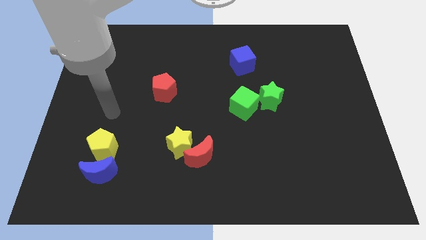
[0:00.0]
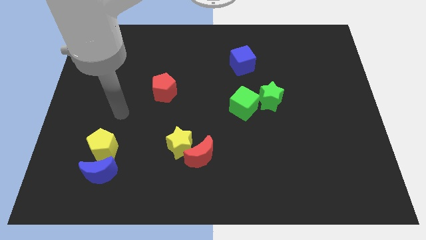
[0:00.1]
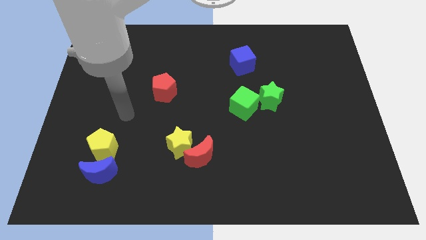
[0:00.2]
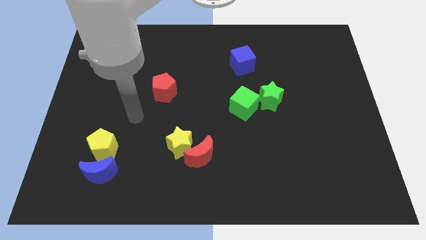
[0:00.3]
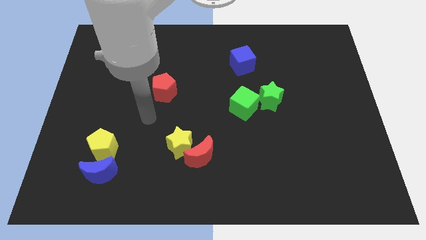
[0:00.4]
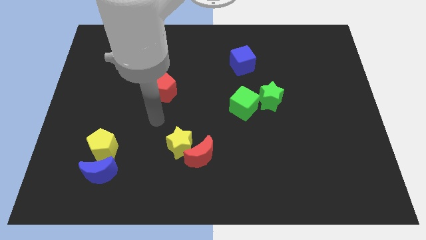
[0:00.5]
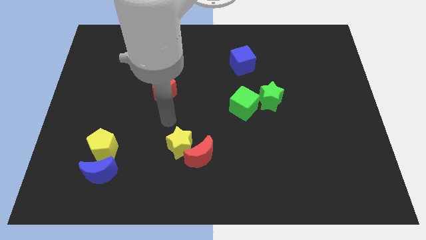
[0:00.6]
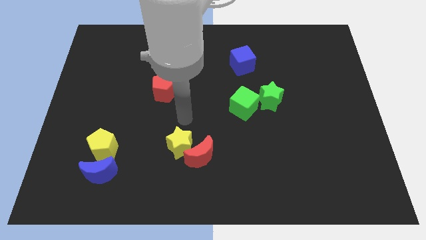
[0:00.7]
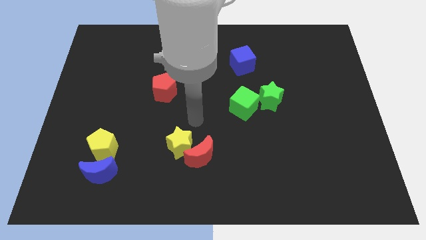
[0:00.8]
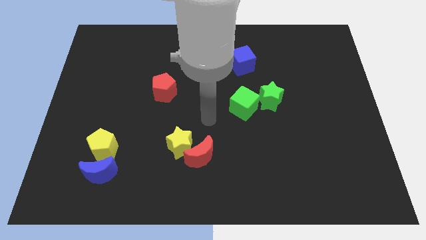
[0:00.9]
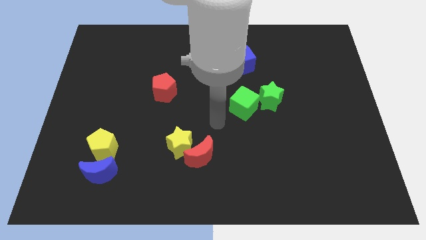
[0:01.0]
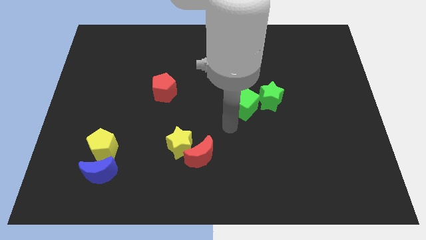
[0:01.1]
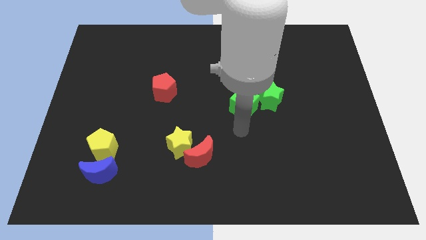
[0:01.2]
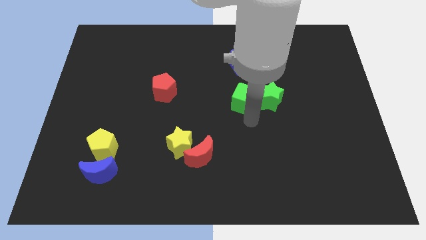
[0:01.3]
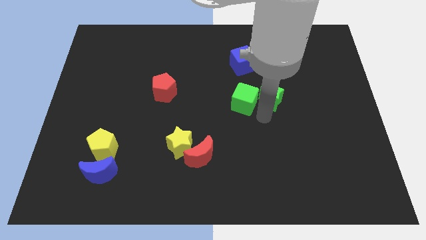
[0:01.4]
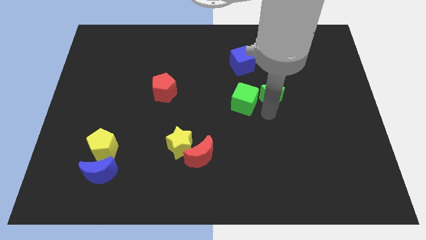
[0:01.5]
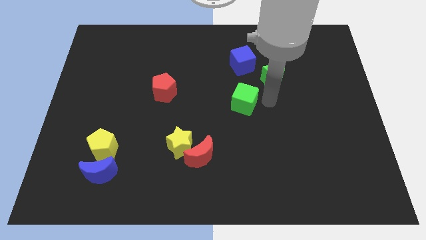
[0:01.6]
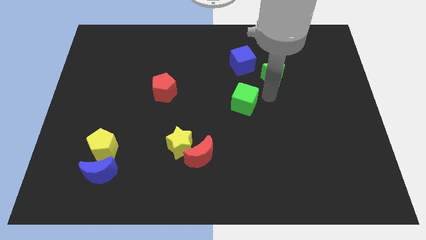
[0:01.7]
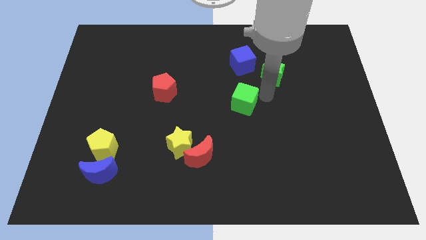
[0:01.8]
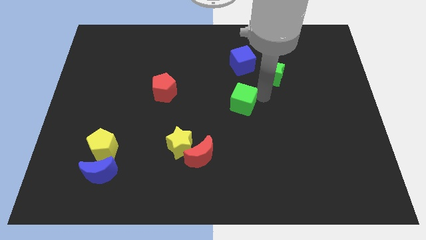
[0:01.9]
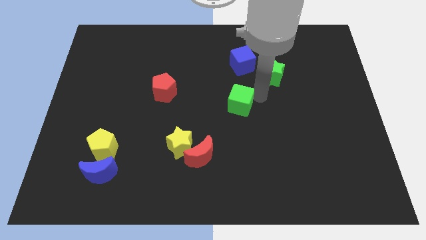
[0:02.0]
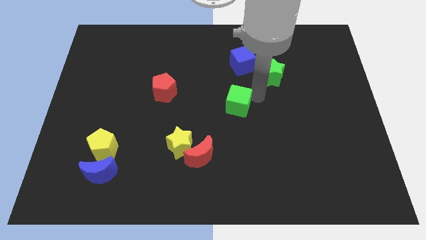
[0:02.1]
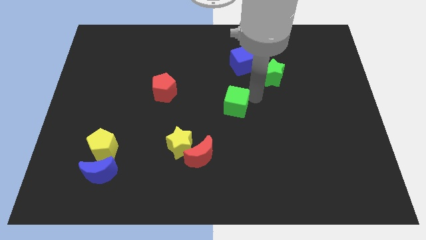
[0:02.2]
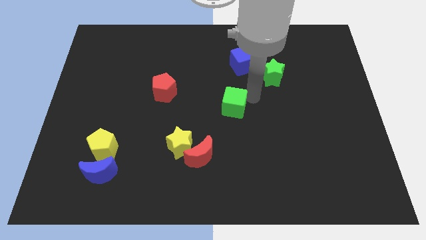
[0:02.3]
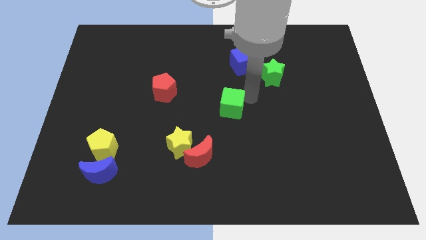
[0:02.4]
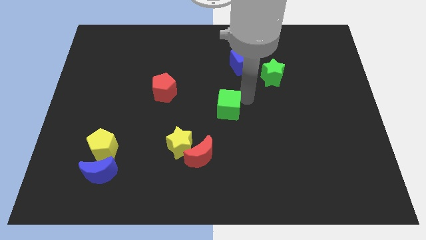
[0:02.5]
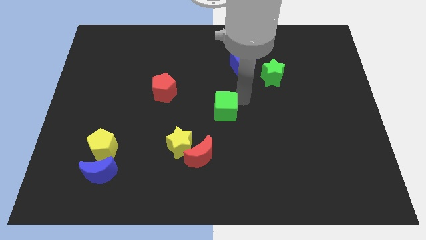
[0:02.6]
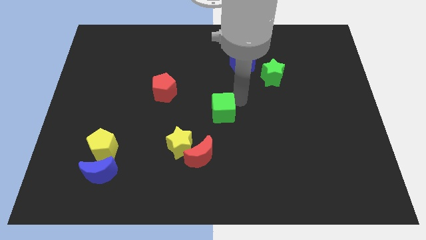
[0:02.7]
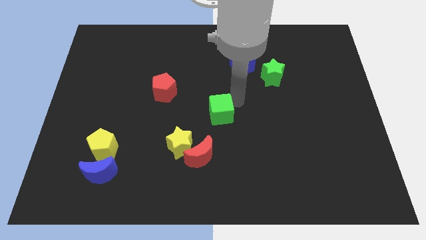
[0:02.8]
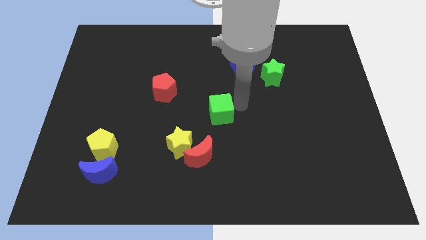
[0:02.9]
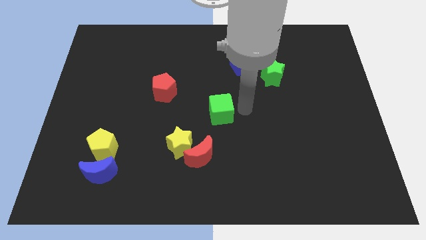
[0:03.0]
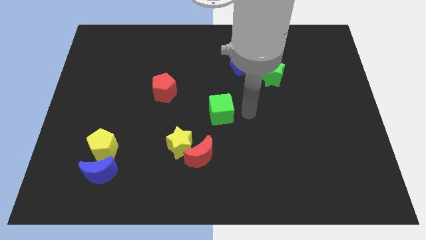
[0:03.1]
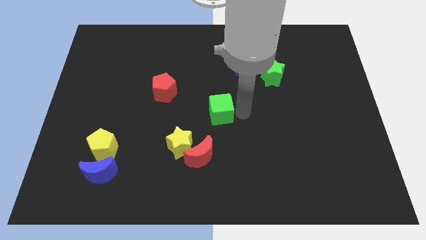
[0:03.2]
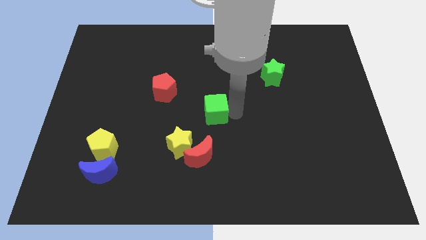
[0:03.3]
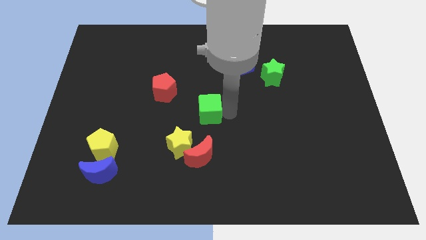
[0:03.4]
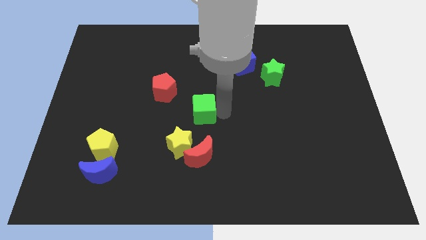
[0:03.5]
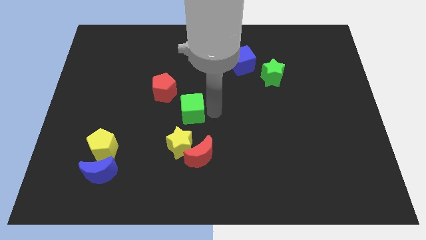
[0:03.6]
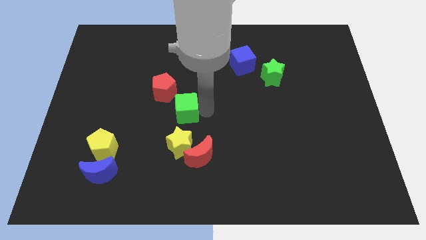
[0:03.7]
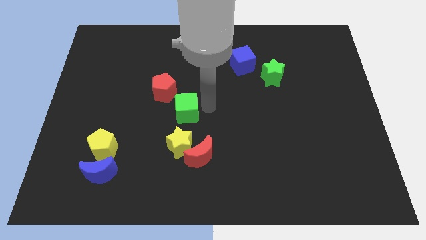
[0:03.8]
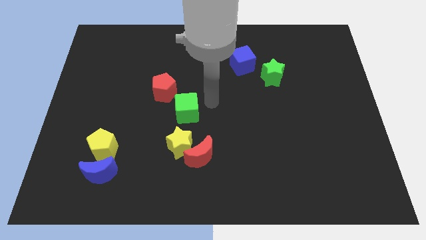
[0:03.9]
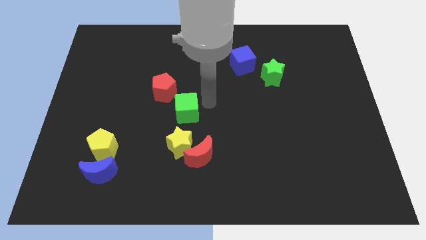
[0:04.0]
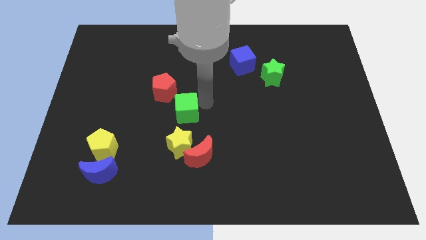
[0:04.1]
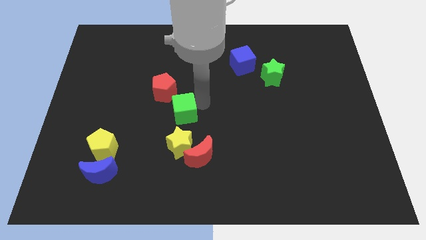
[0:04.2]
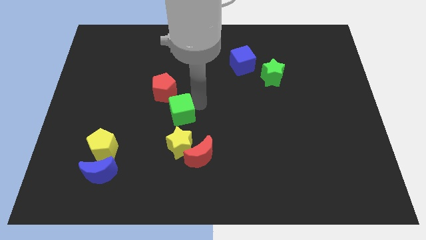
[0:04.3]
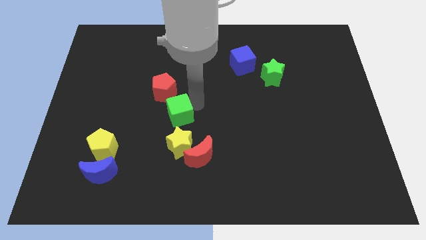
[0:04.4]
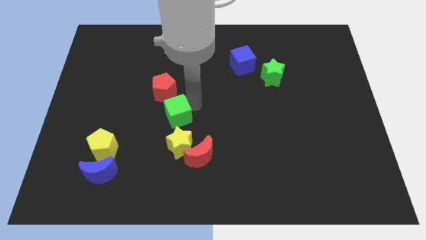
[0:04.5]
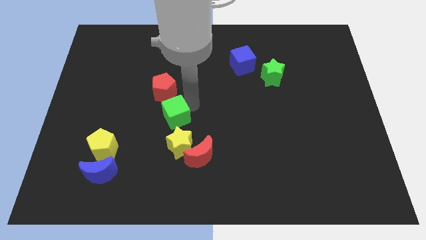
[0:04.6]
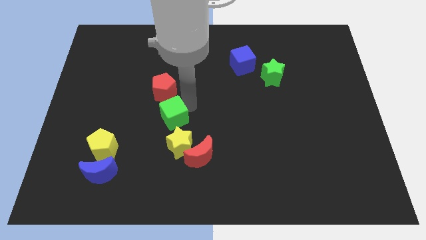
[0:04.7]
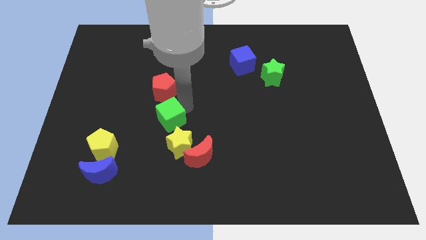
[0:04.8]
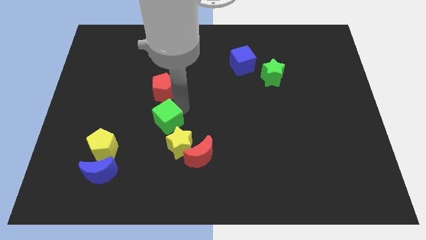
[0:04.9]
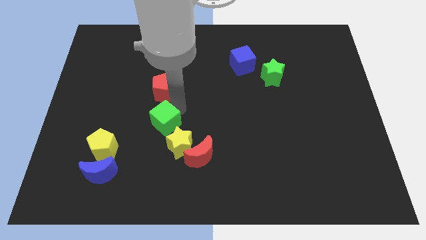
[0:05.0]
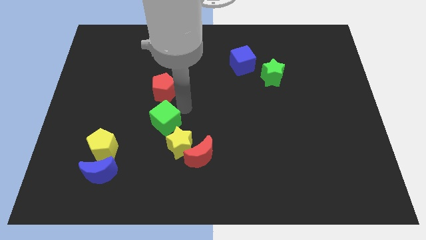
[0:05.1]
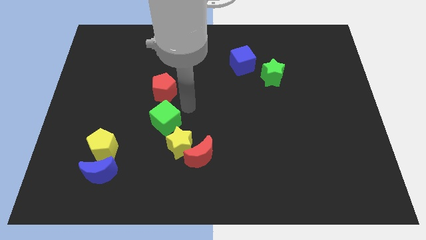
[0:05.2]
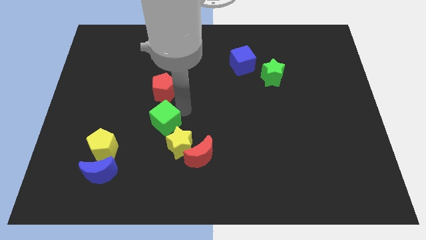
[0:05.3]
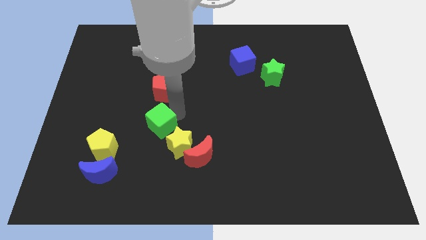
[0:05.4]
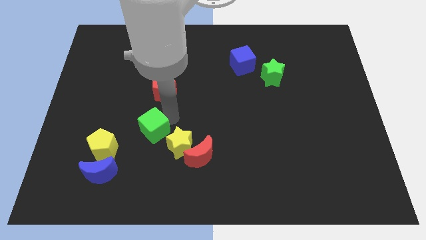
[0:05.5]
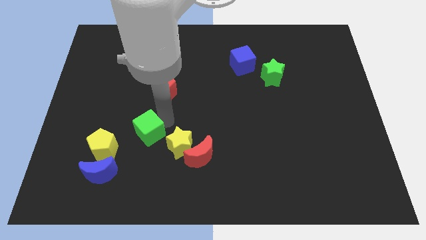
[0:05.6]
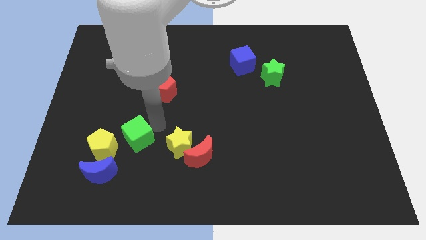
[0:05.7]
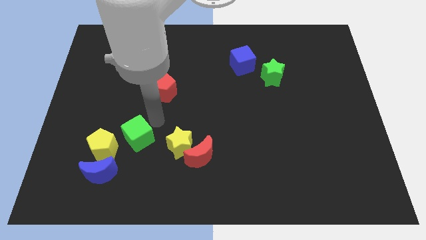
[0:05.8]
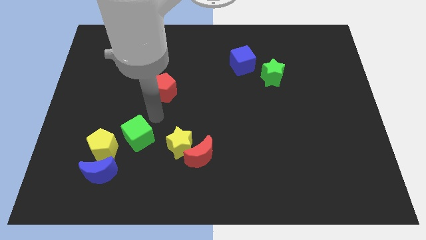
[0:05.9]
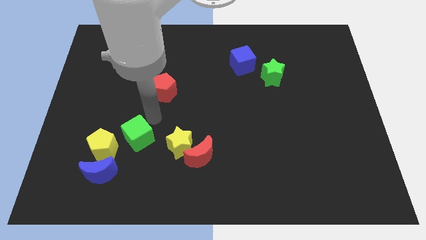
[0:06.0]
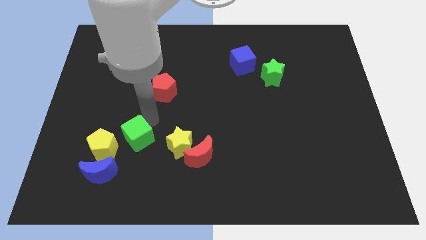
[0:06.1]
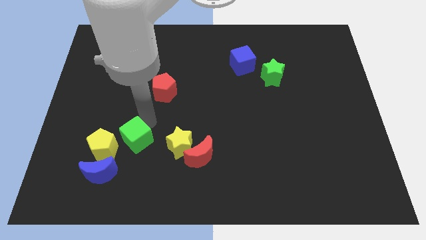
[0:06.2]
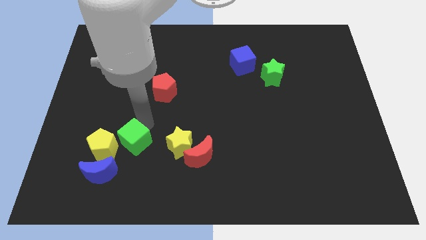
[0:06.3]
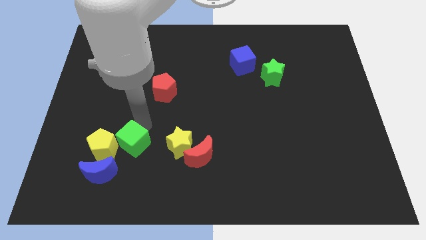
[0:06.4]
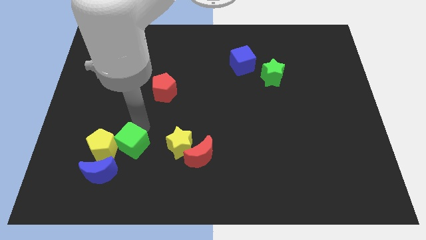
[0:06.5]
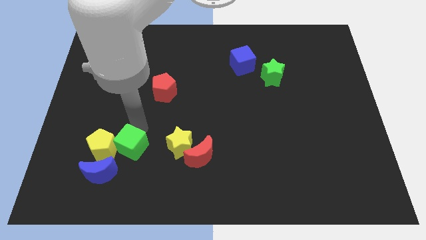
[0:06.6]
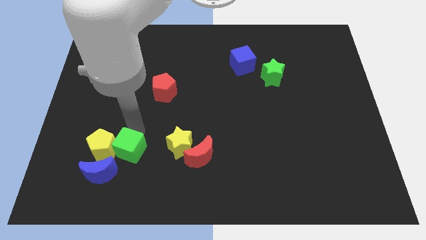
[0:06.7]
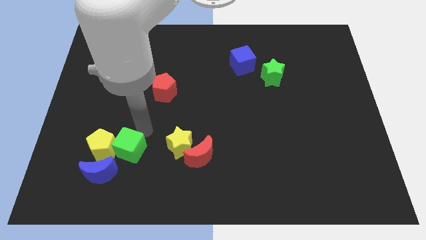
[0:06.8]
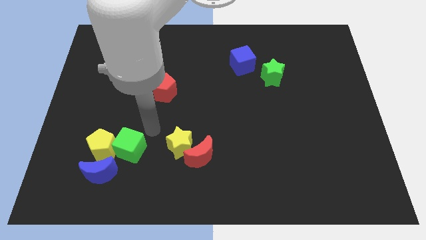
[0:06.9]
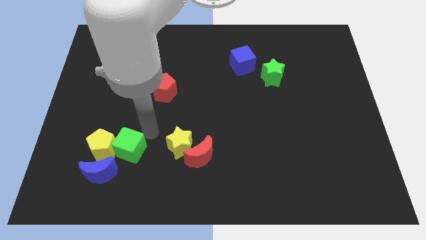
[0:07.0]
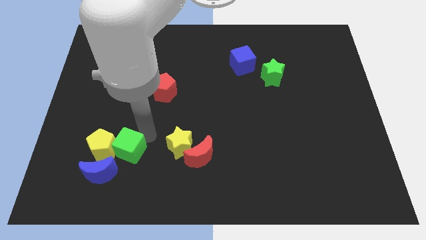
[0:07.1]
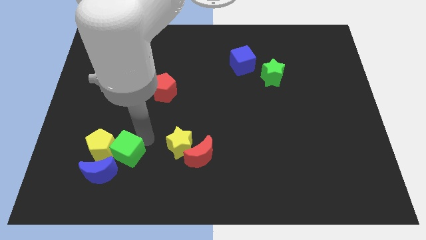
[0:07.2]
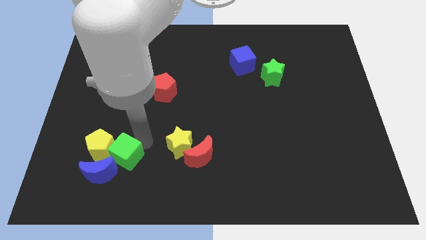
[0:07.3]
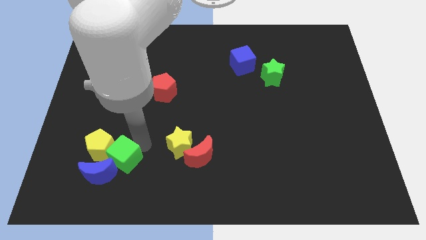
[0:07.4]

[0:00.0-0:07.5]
move the green cube close to the blue moon

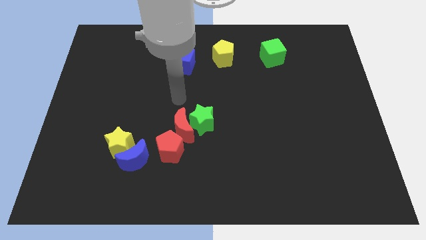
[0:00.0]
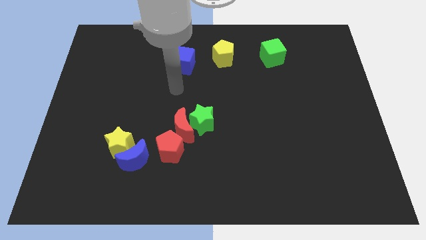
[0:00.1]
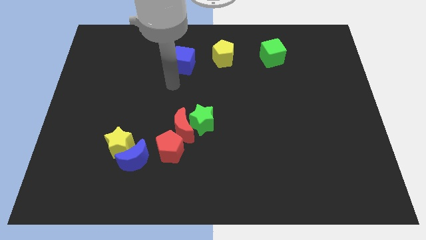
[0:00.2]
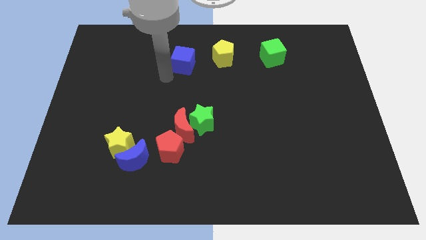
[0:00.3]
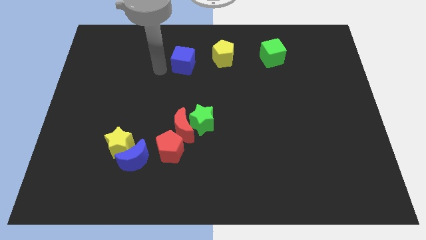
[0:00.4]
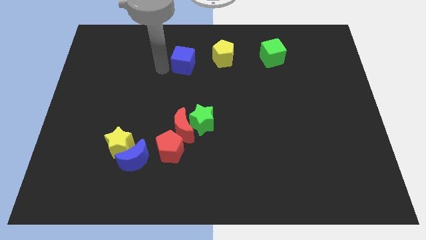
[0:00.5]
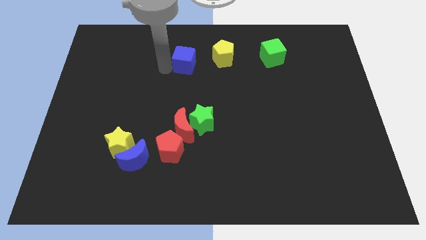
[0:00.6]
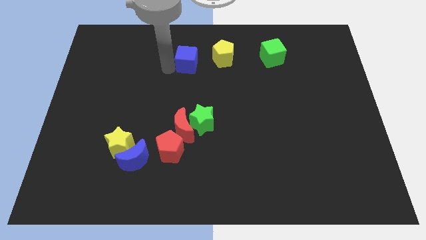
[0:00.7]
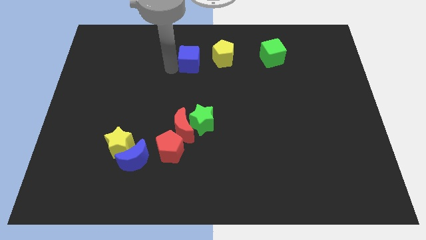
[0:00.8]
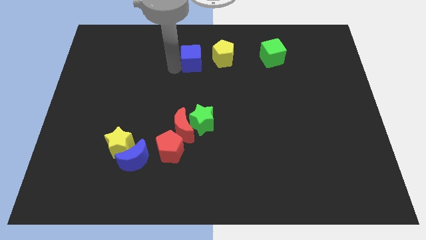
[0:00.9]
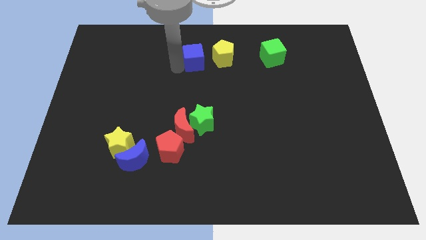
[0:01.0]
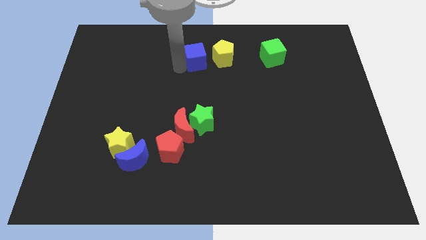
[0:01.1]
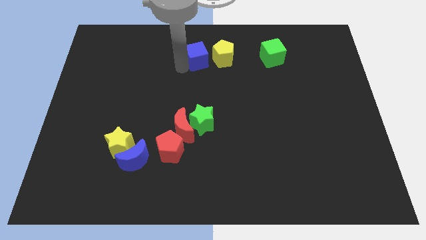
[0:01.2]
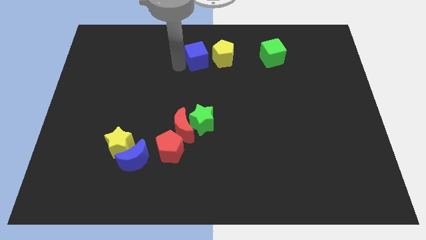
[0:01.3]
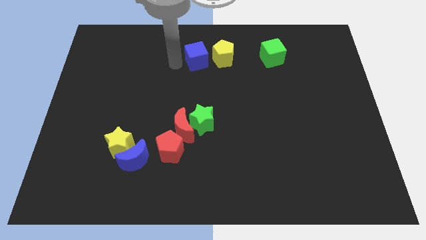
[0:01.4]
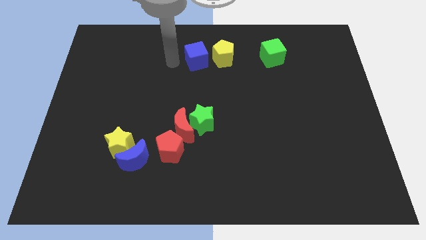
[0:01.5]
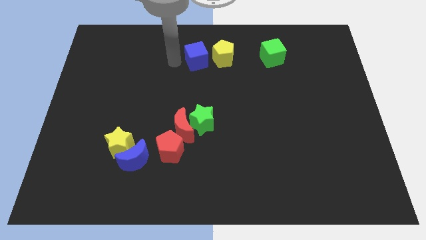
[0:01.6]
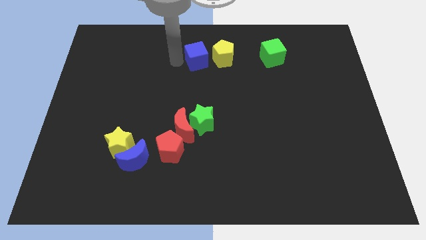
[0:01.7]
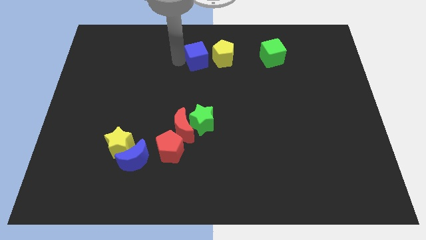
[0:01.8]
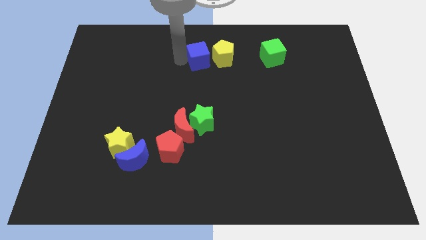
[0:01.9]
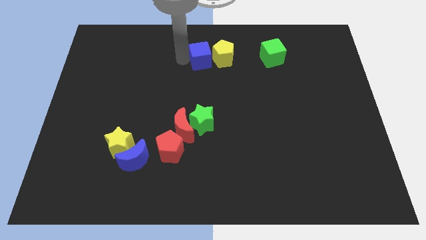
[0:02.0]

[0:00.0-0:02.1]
move the blue cube close to the yellow pentagon
